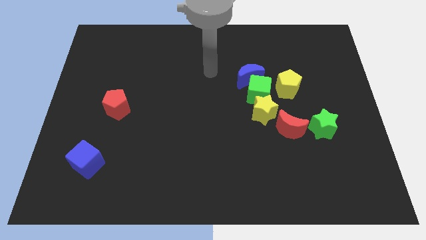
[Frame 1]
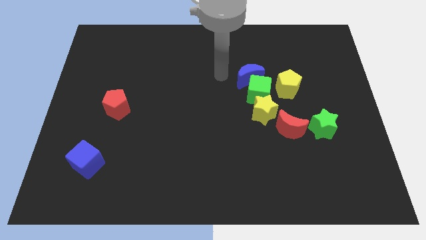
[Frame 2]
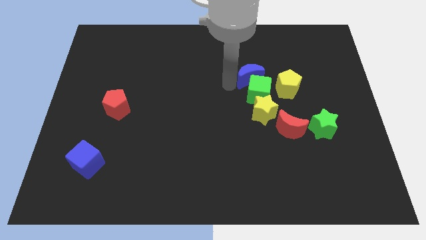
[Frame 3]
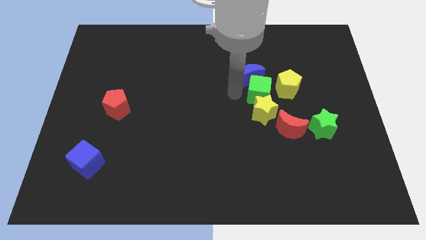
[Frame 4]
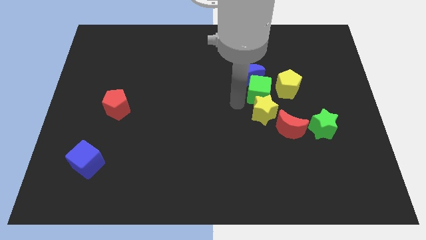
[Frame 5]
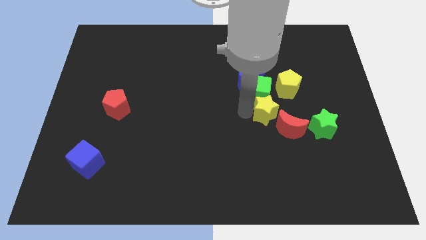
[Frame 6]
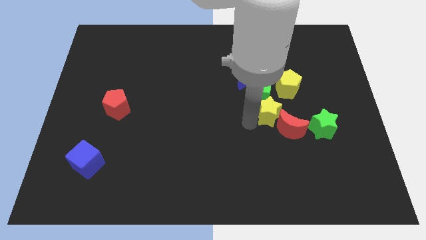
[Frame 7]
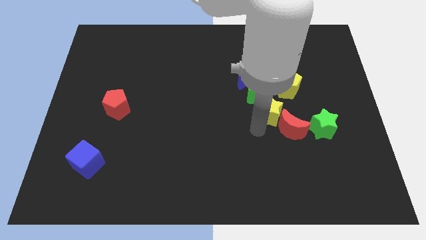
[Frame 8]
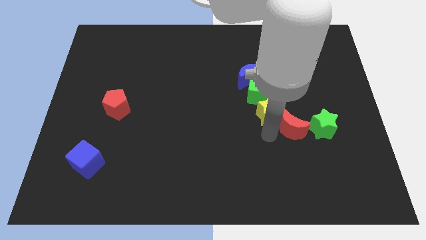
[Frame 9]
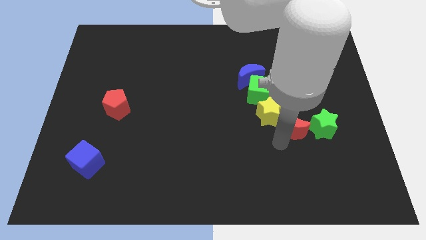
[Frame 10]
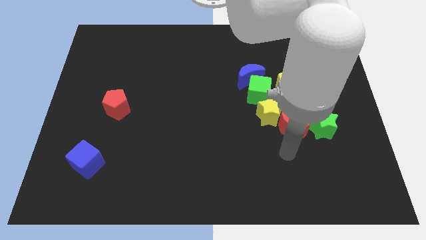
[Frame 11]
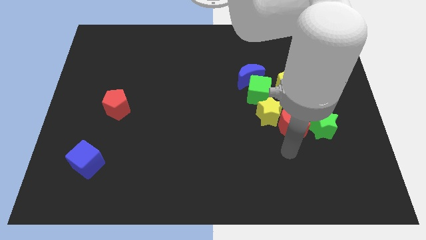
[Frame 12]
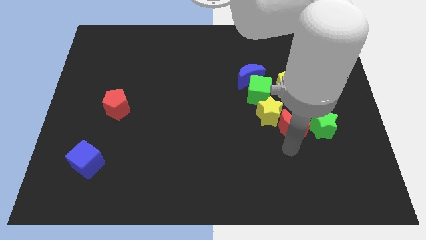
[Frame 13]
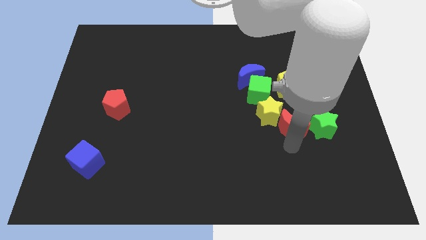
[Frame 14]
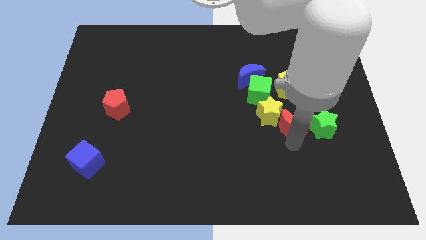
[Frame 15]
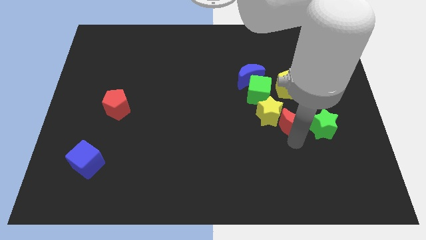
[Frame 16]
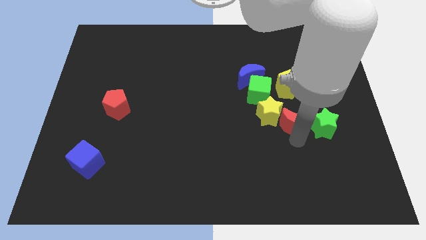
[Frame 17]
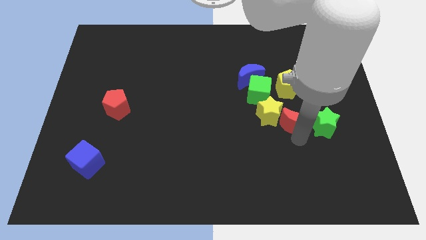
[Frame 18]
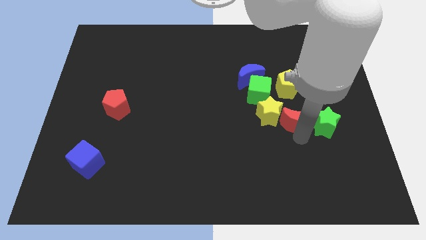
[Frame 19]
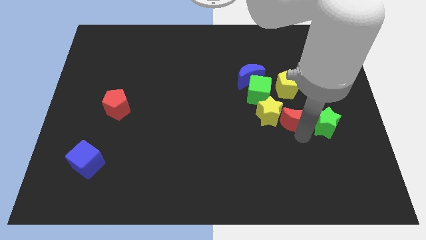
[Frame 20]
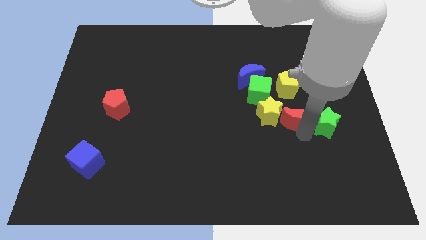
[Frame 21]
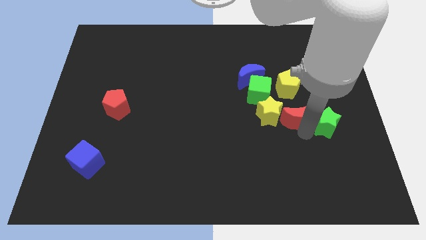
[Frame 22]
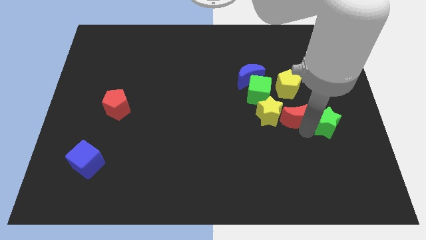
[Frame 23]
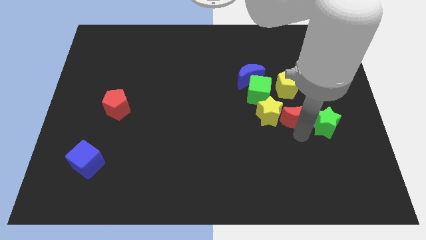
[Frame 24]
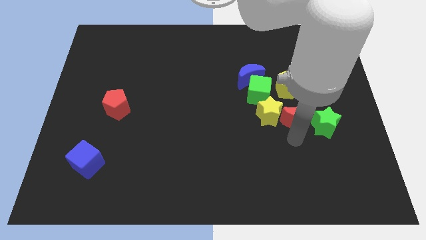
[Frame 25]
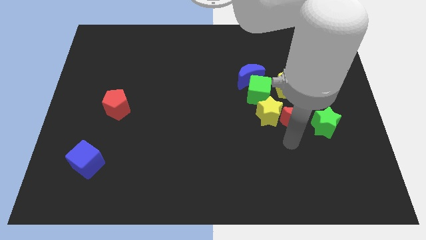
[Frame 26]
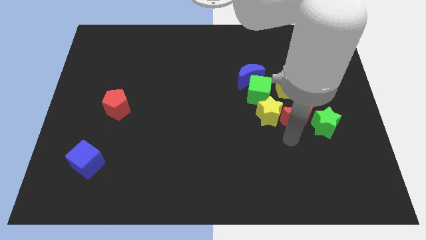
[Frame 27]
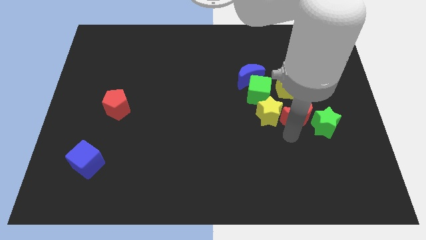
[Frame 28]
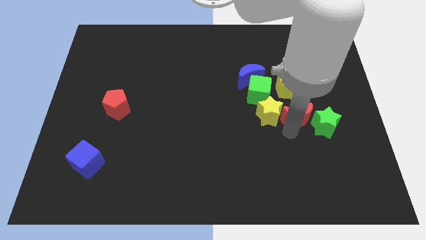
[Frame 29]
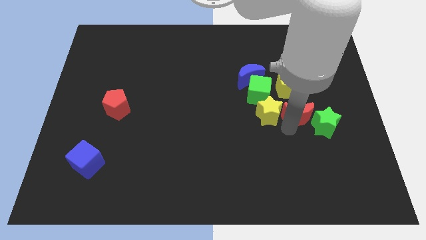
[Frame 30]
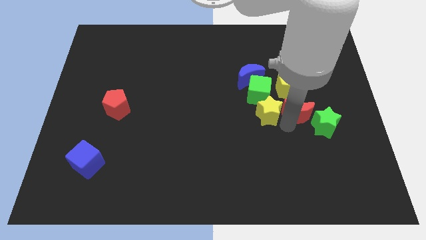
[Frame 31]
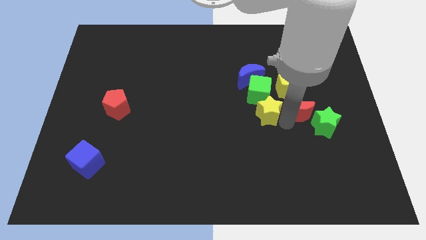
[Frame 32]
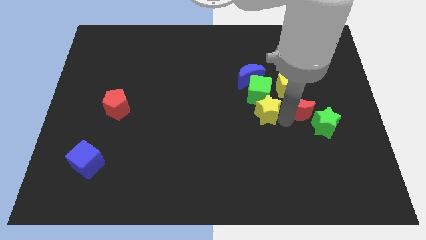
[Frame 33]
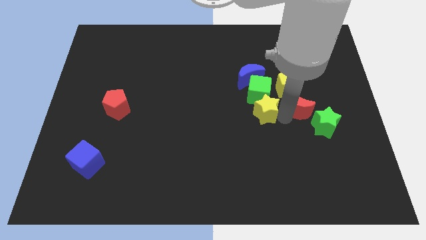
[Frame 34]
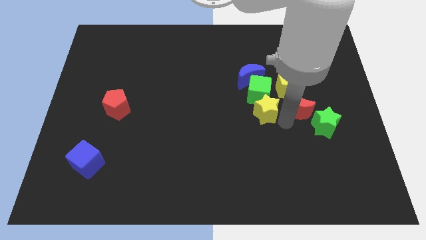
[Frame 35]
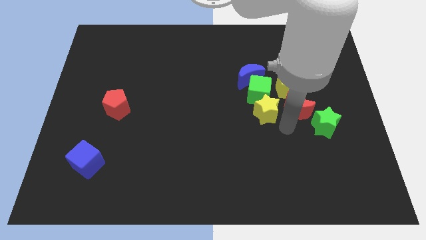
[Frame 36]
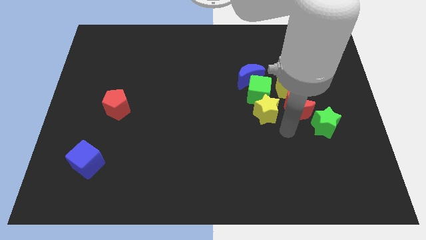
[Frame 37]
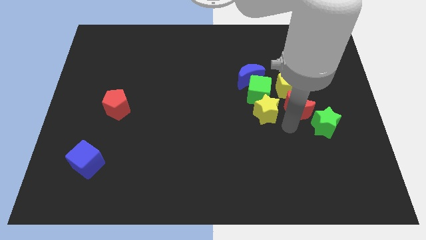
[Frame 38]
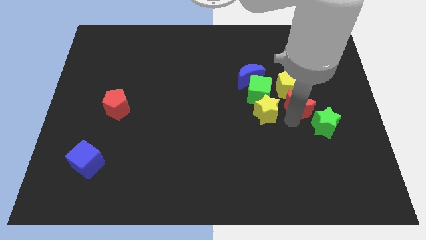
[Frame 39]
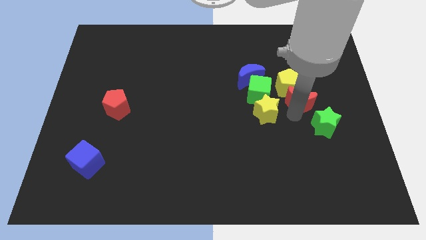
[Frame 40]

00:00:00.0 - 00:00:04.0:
slightly push the red moon upwards

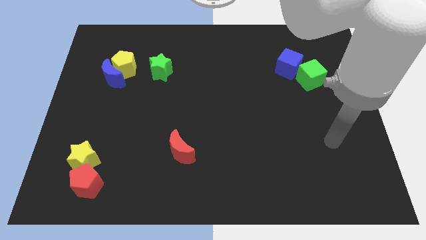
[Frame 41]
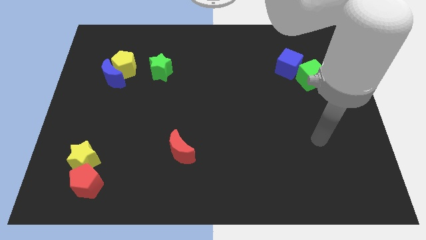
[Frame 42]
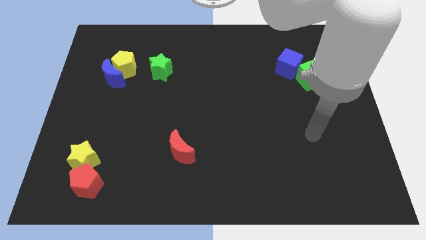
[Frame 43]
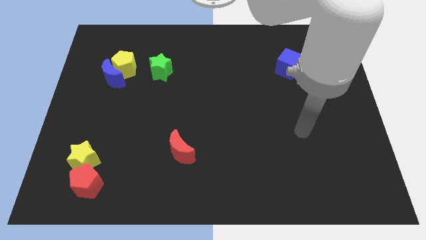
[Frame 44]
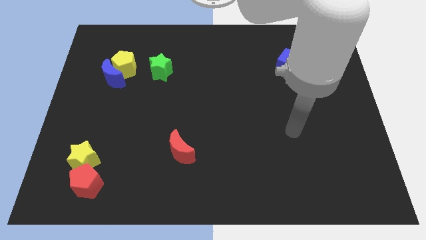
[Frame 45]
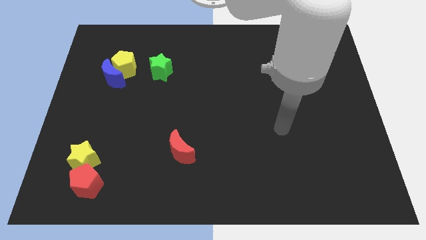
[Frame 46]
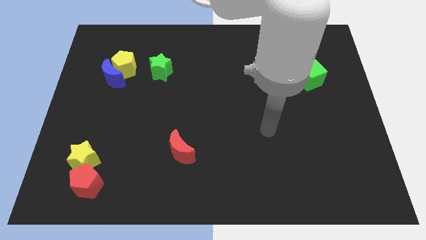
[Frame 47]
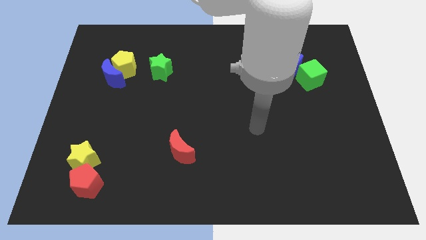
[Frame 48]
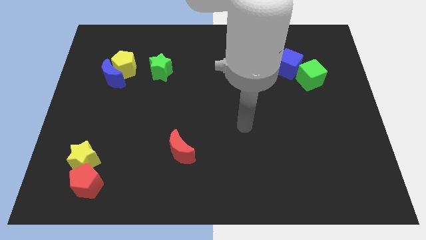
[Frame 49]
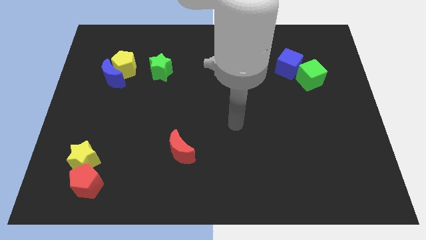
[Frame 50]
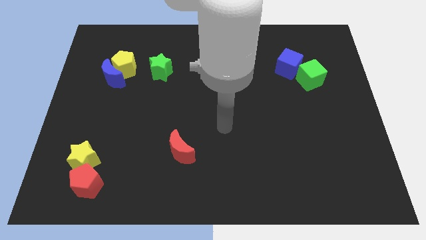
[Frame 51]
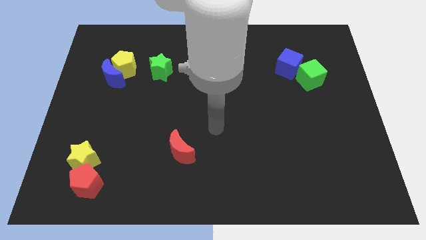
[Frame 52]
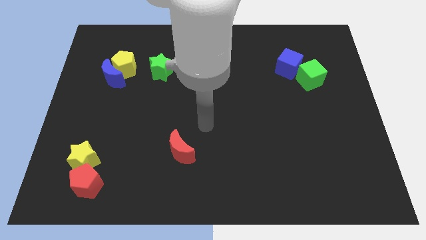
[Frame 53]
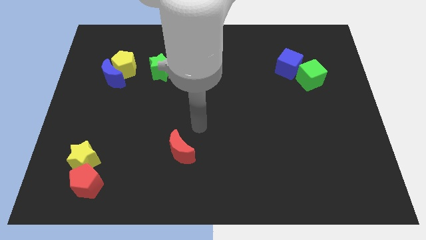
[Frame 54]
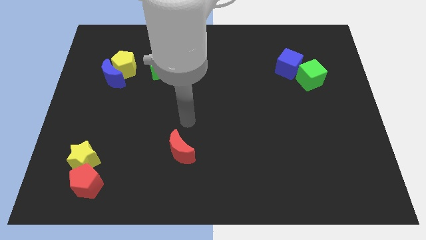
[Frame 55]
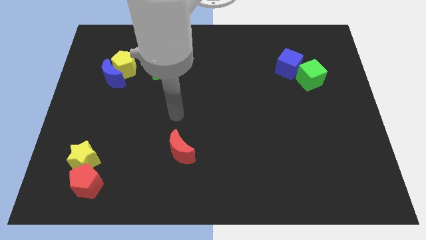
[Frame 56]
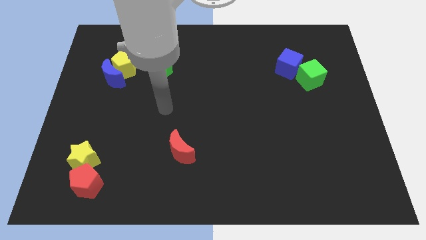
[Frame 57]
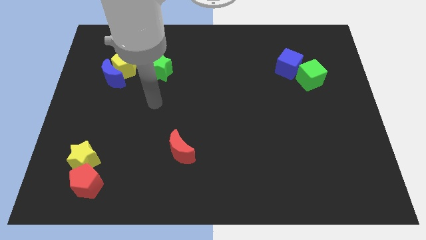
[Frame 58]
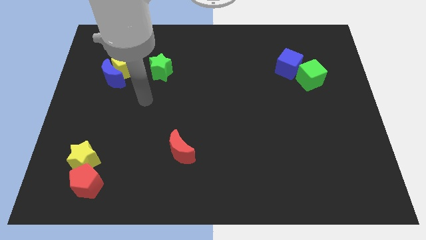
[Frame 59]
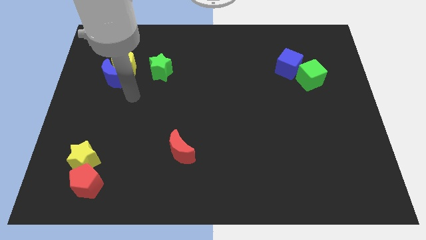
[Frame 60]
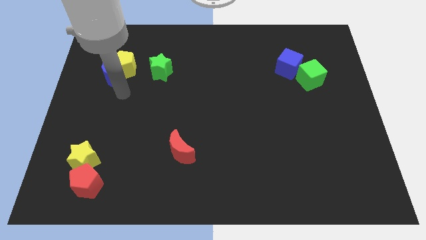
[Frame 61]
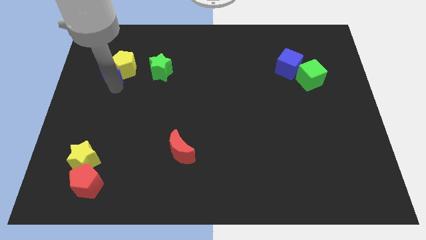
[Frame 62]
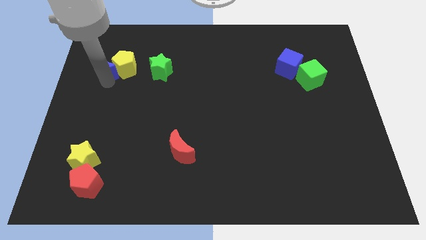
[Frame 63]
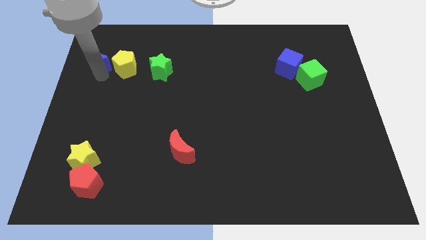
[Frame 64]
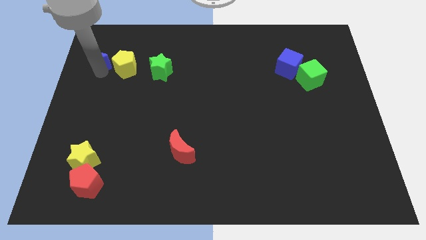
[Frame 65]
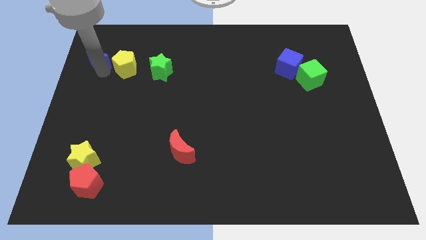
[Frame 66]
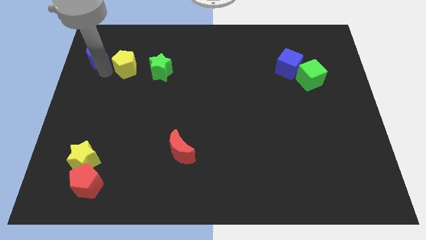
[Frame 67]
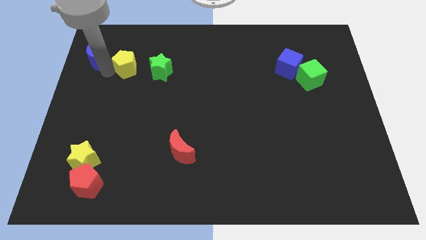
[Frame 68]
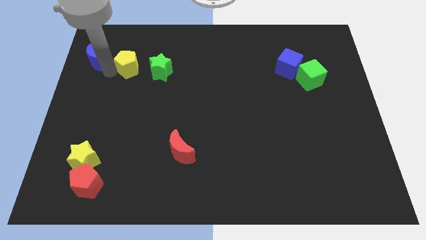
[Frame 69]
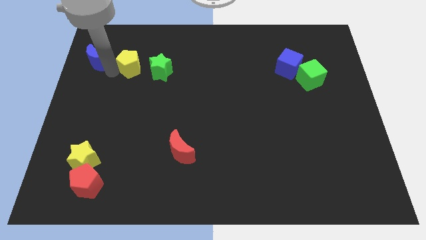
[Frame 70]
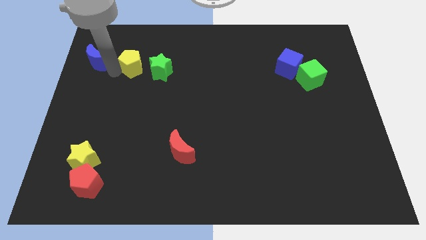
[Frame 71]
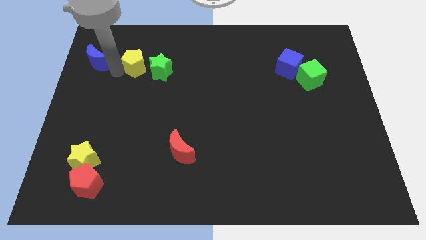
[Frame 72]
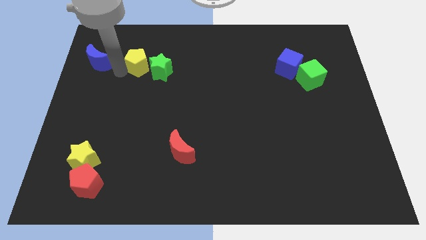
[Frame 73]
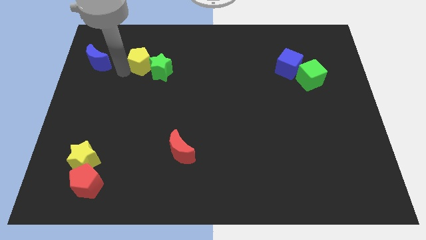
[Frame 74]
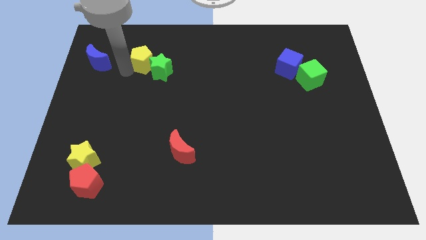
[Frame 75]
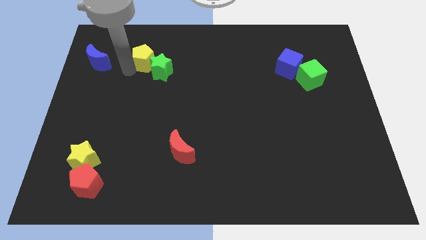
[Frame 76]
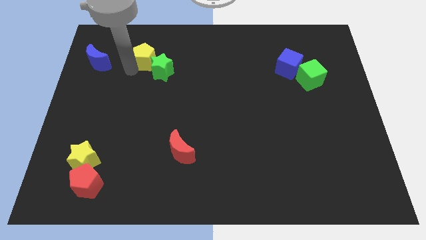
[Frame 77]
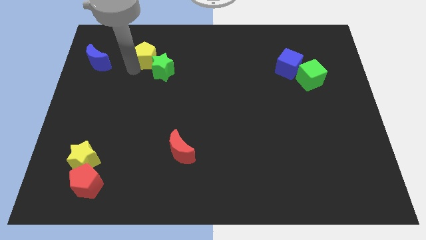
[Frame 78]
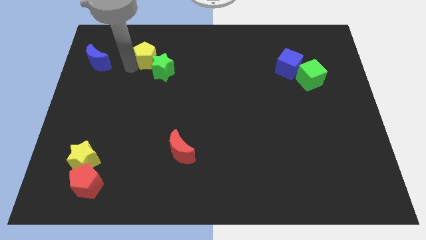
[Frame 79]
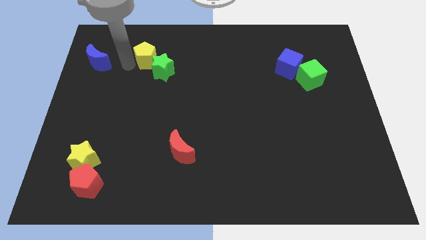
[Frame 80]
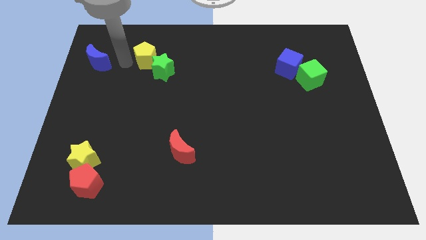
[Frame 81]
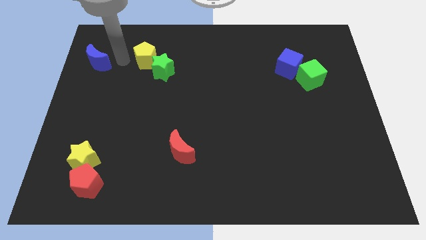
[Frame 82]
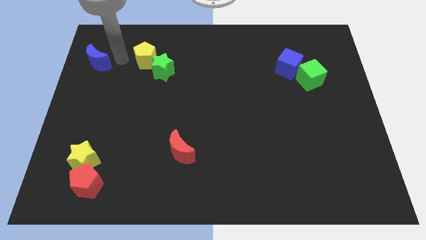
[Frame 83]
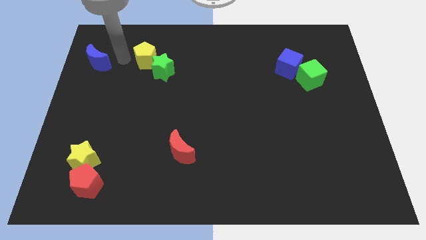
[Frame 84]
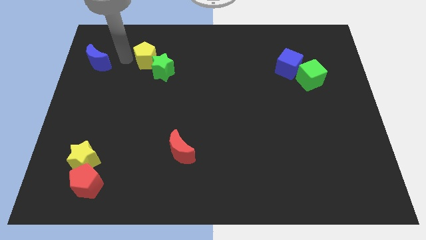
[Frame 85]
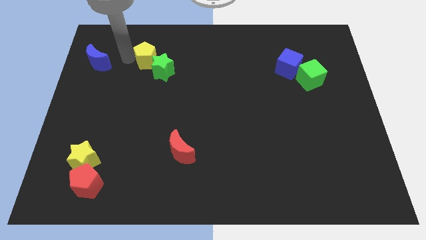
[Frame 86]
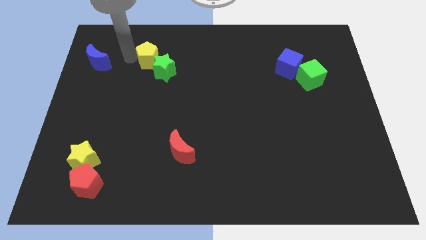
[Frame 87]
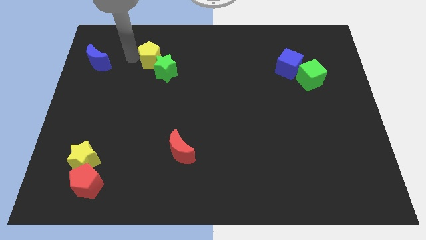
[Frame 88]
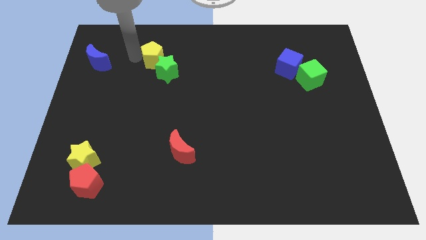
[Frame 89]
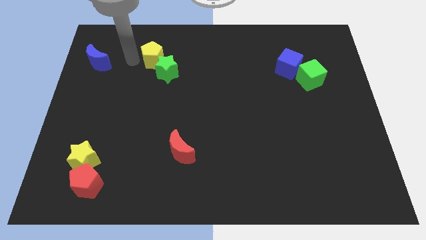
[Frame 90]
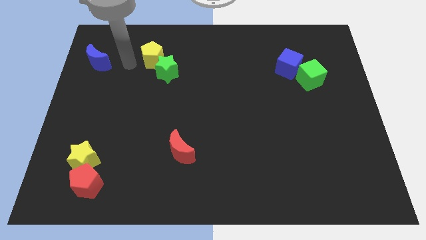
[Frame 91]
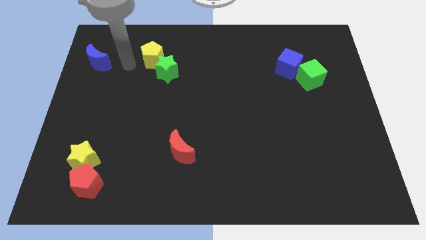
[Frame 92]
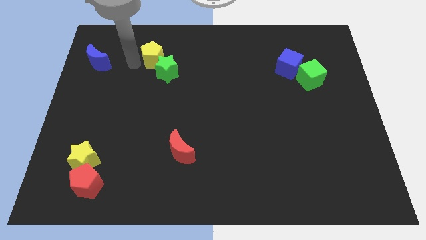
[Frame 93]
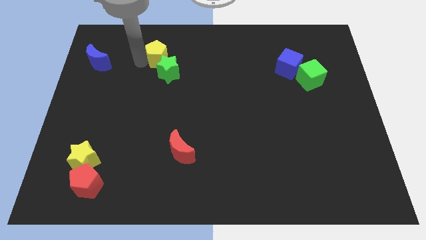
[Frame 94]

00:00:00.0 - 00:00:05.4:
slightly push the yellow pentagon right
